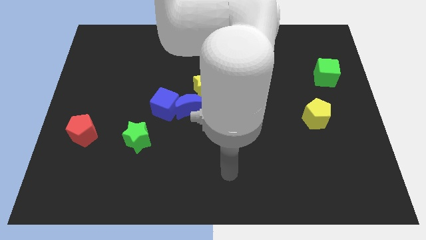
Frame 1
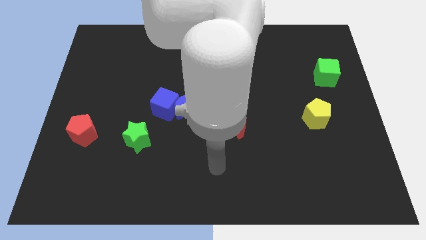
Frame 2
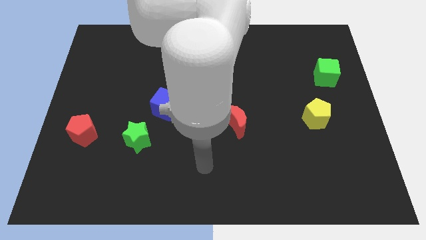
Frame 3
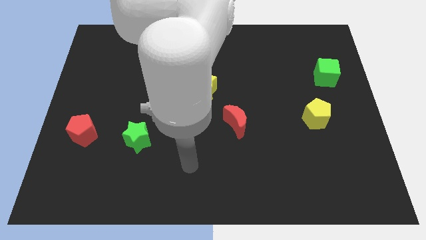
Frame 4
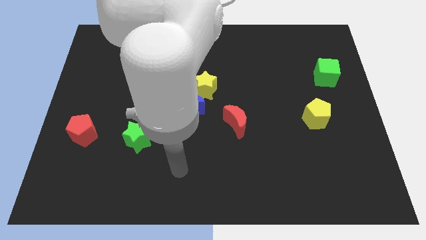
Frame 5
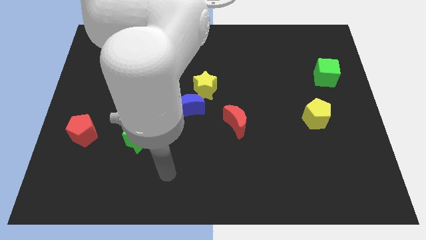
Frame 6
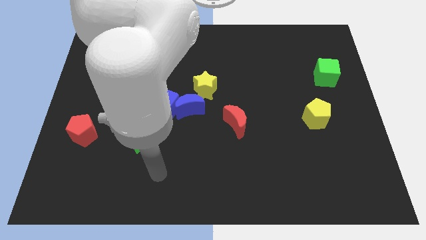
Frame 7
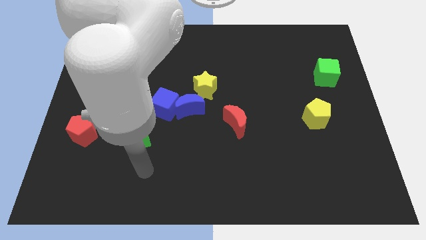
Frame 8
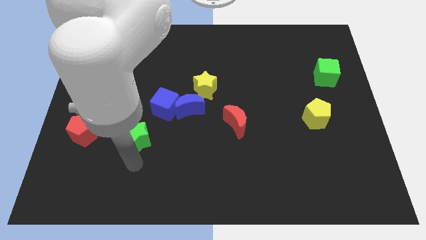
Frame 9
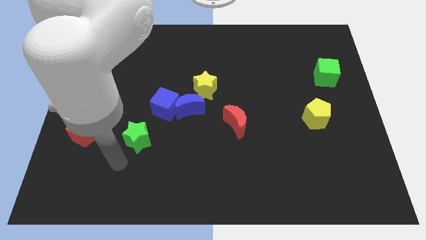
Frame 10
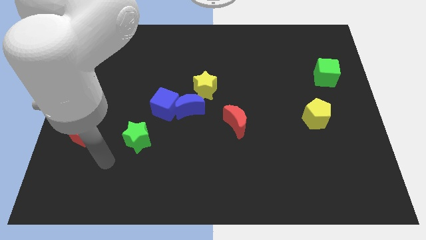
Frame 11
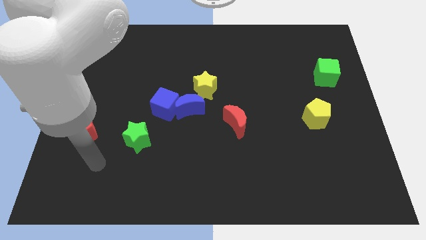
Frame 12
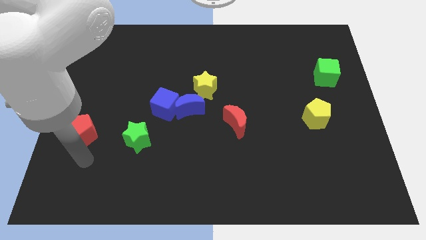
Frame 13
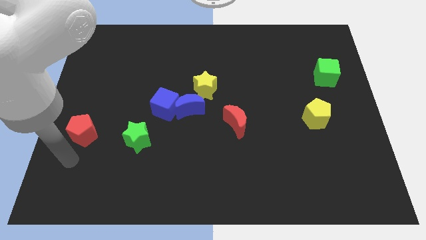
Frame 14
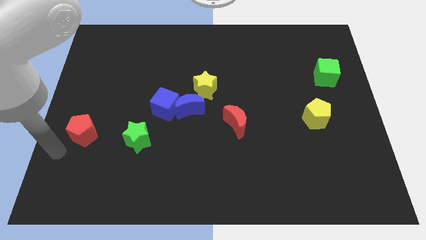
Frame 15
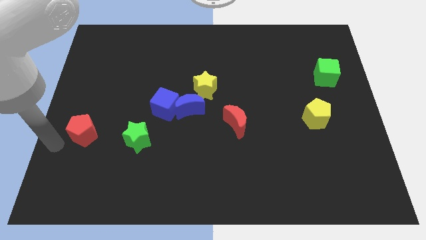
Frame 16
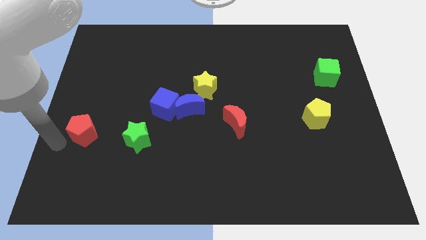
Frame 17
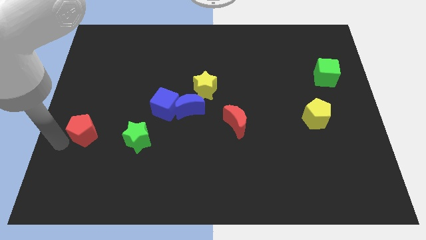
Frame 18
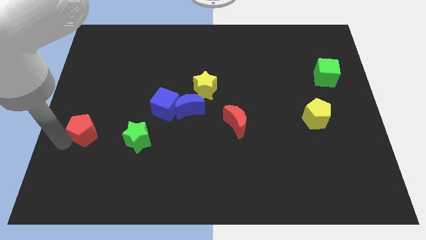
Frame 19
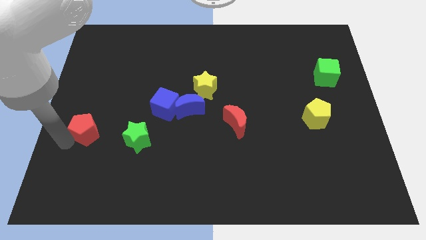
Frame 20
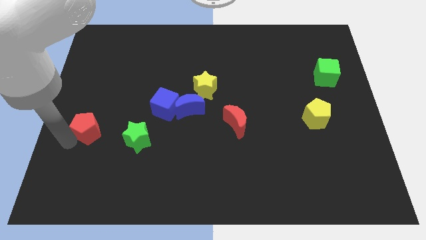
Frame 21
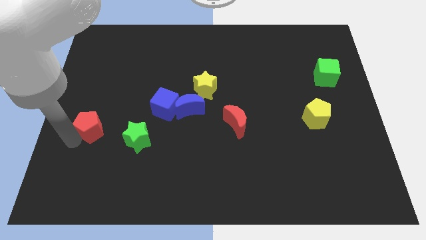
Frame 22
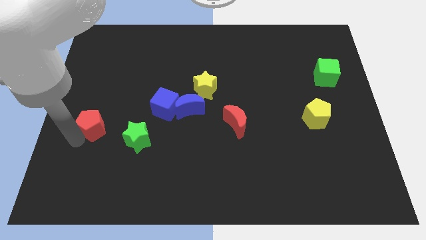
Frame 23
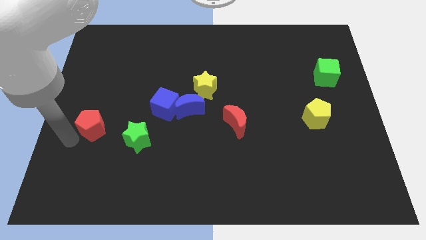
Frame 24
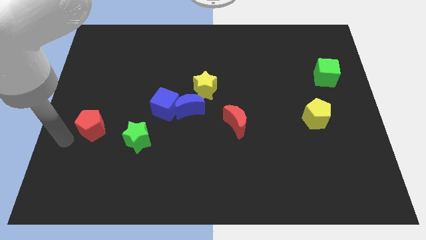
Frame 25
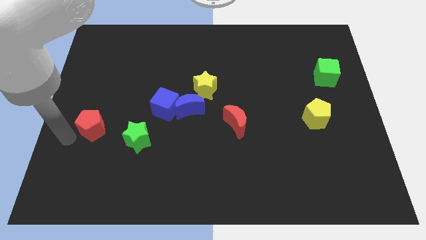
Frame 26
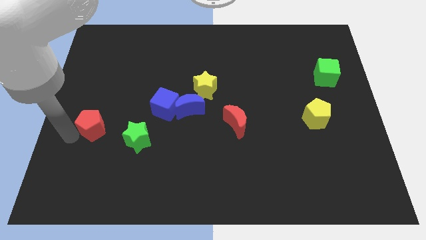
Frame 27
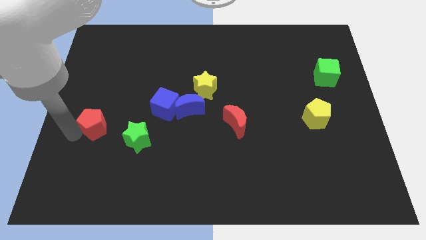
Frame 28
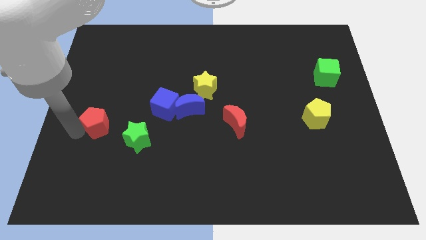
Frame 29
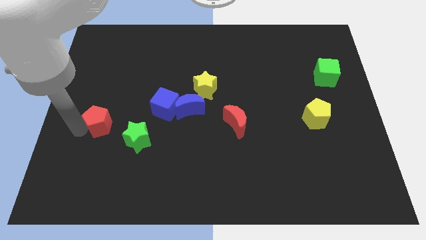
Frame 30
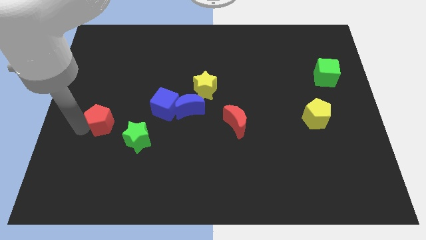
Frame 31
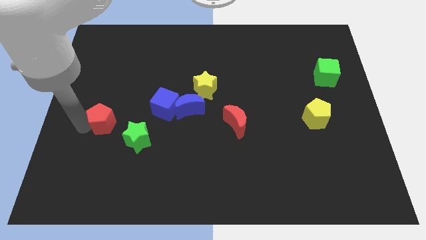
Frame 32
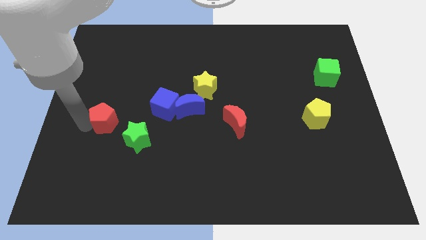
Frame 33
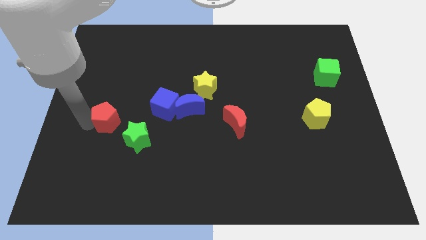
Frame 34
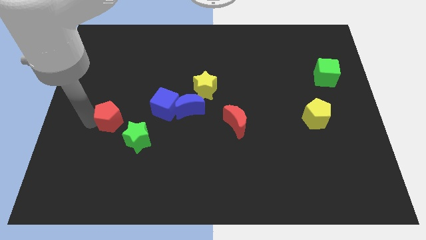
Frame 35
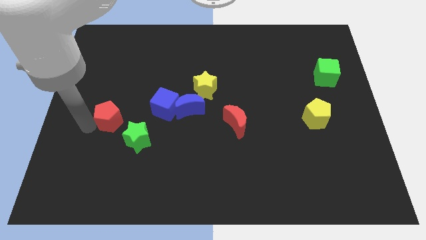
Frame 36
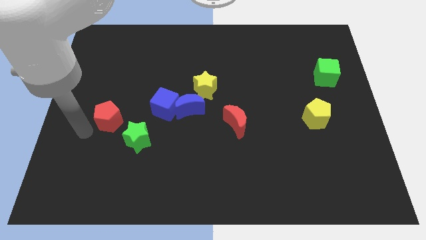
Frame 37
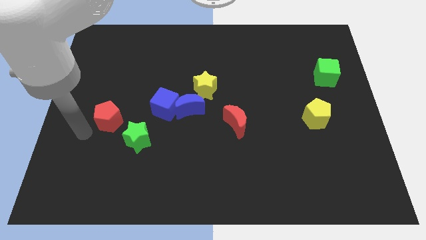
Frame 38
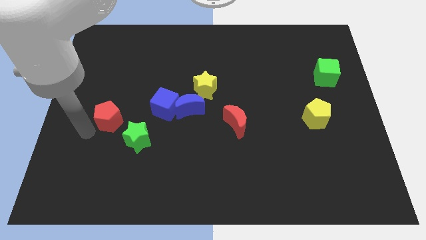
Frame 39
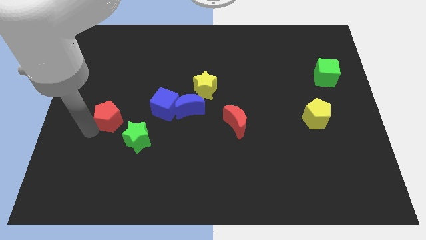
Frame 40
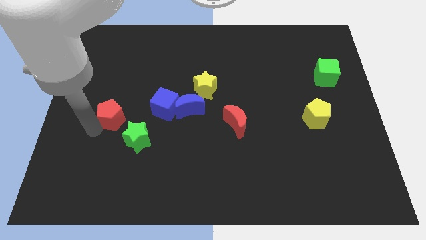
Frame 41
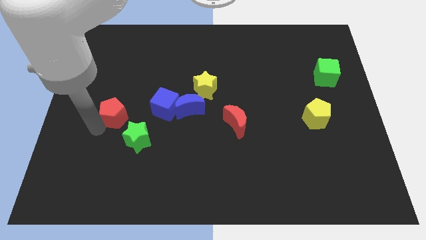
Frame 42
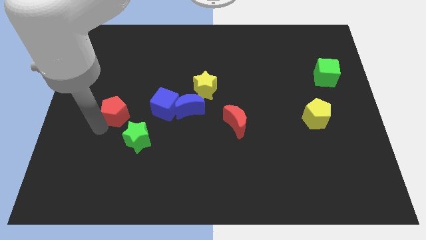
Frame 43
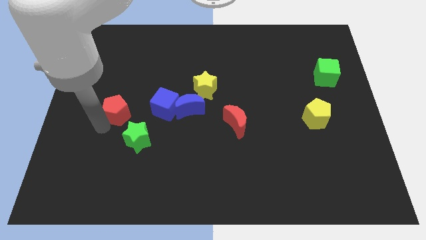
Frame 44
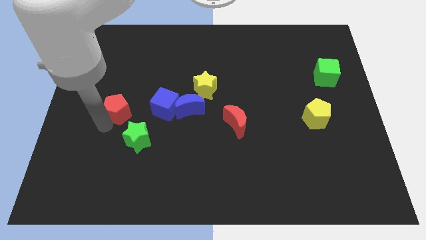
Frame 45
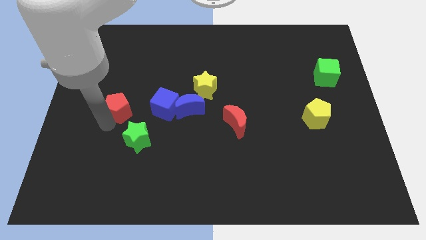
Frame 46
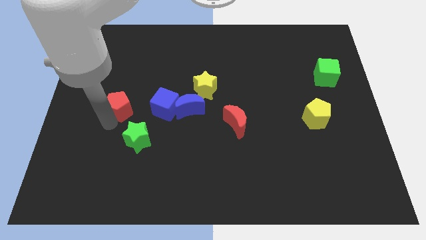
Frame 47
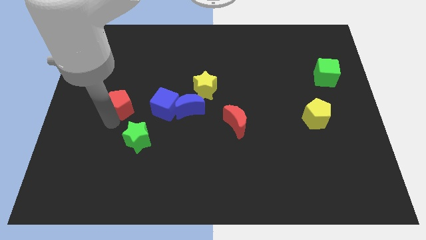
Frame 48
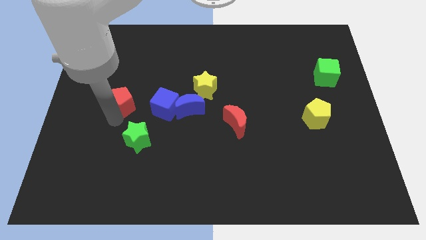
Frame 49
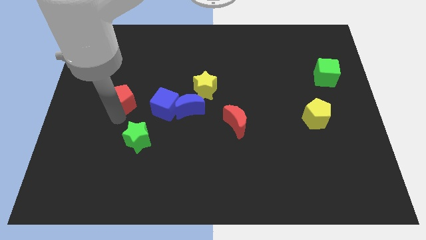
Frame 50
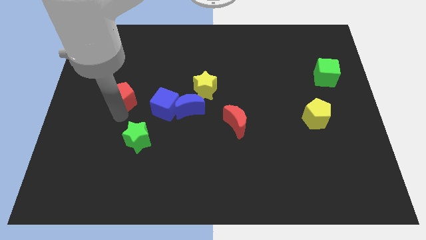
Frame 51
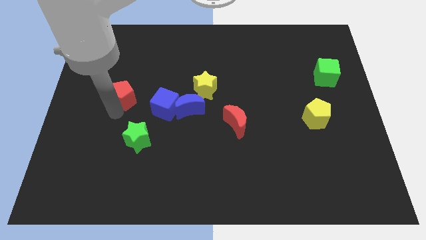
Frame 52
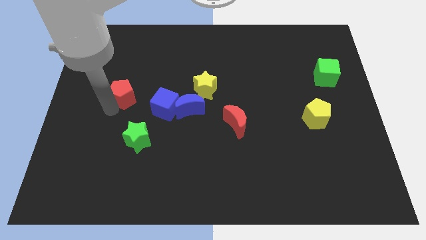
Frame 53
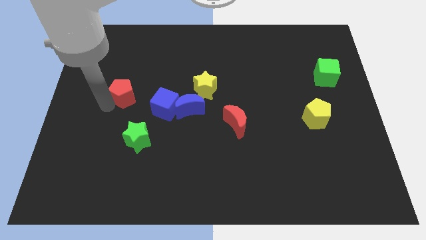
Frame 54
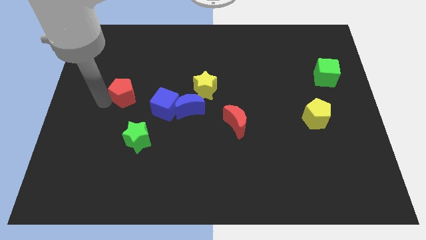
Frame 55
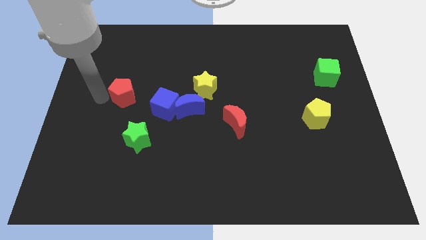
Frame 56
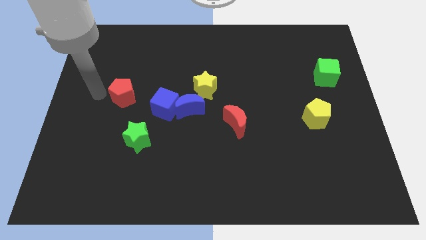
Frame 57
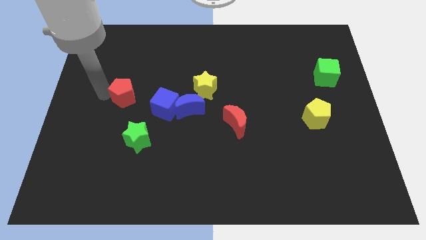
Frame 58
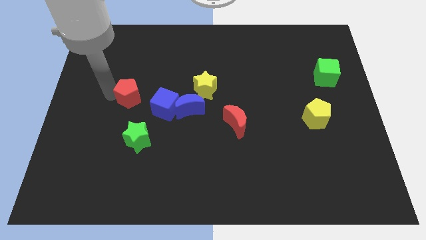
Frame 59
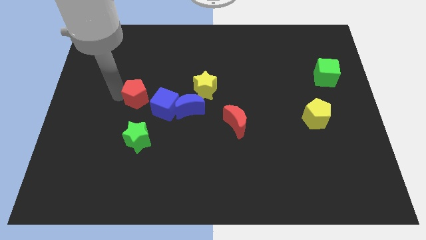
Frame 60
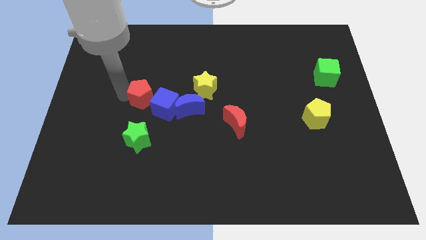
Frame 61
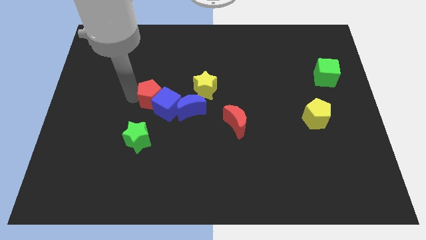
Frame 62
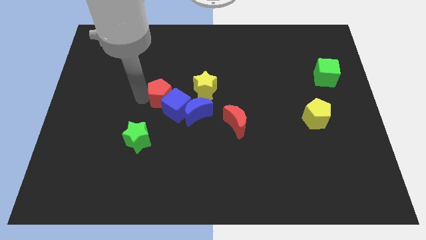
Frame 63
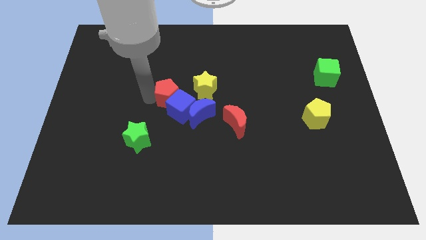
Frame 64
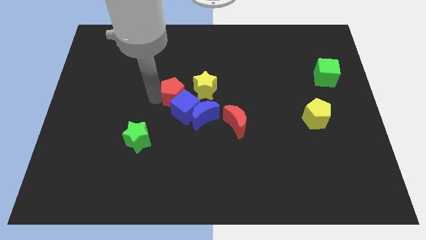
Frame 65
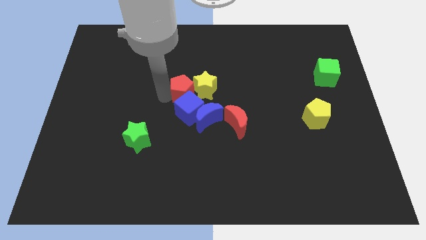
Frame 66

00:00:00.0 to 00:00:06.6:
push the red pentagon close to the yellow star

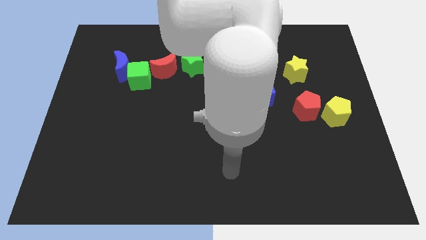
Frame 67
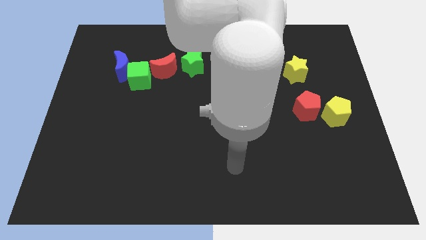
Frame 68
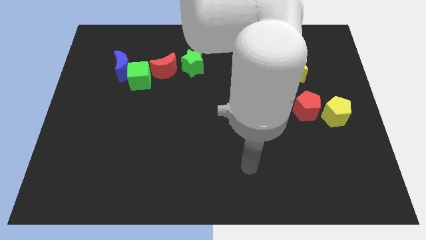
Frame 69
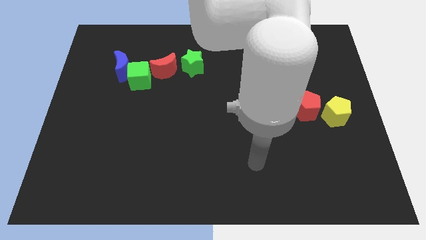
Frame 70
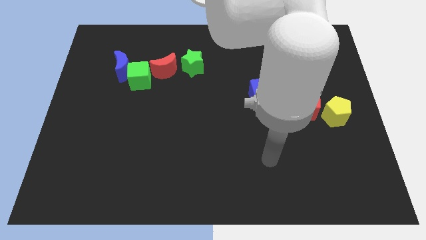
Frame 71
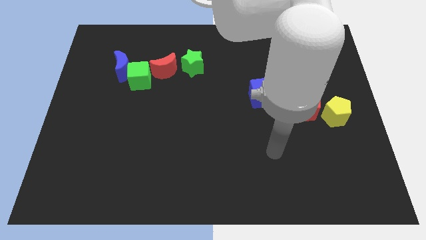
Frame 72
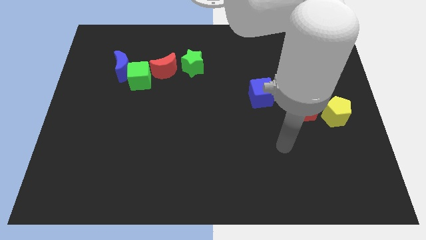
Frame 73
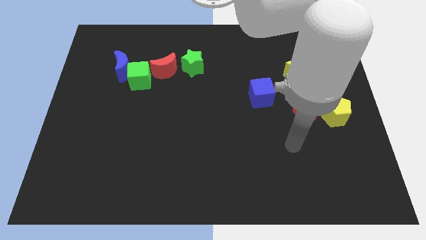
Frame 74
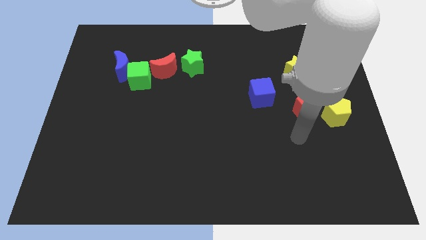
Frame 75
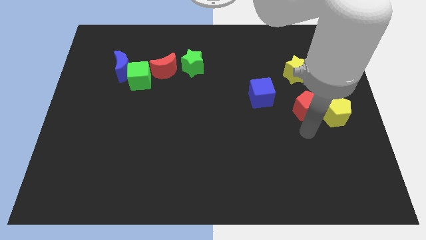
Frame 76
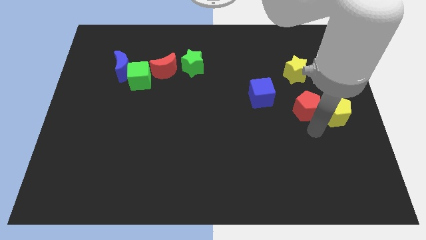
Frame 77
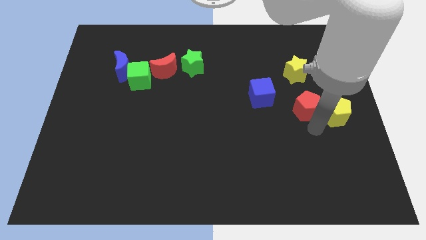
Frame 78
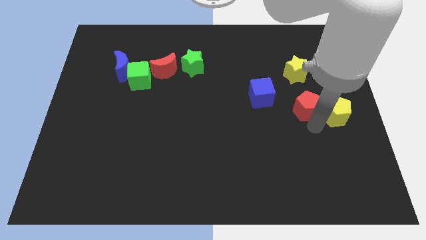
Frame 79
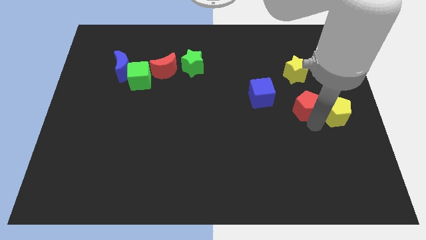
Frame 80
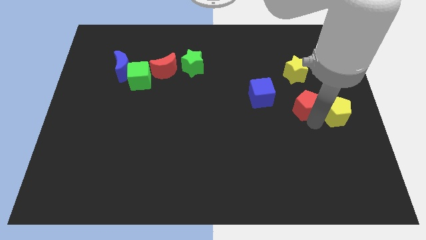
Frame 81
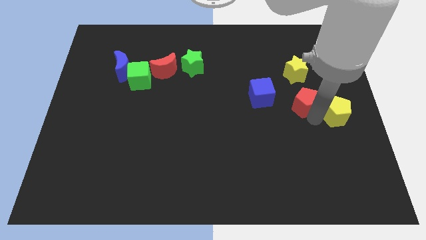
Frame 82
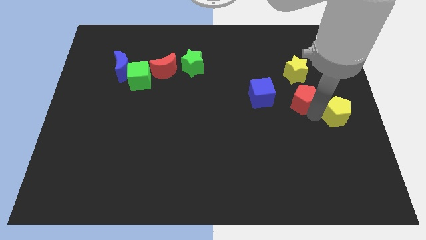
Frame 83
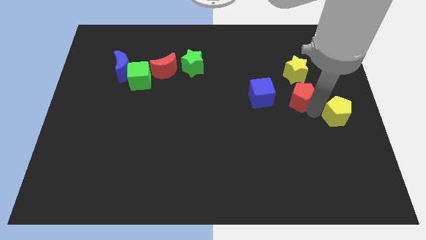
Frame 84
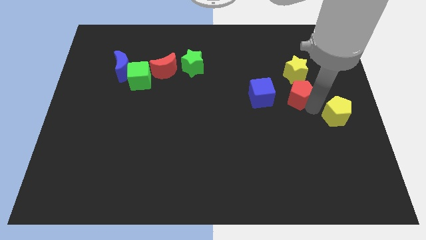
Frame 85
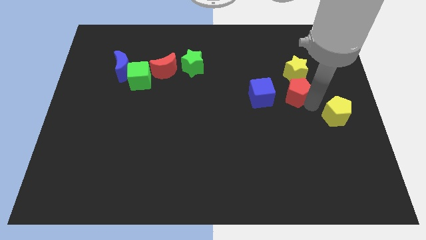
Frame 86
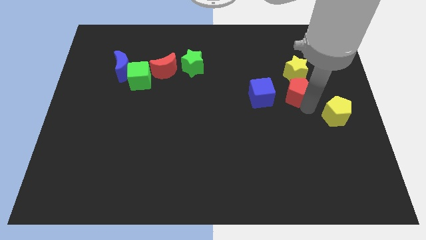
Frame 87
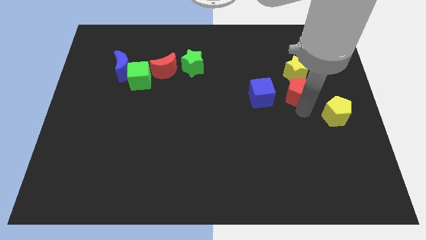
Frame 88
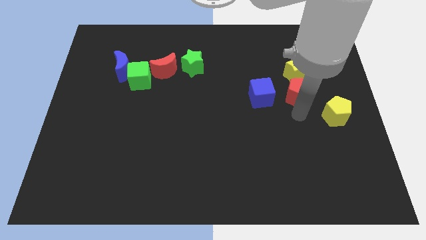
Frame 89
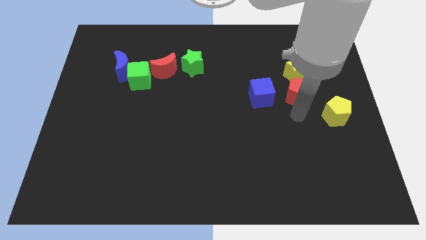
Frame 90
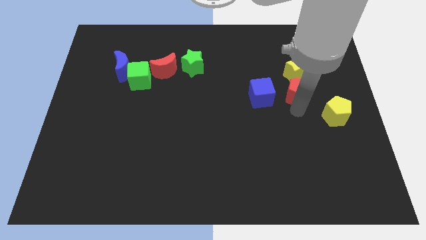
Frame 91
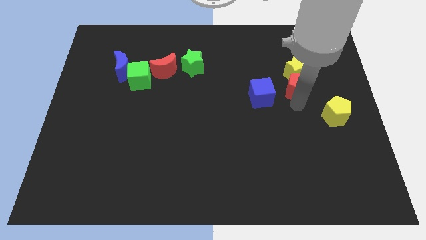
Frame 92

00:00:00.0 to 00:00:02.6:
put the red pentagon to the yellow star
